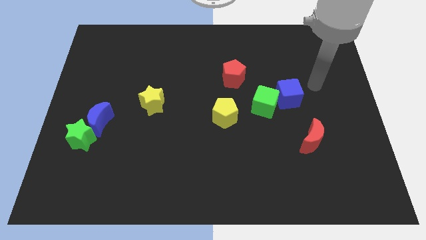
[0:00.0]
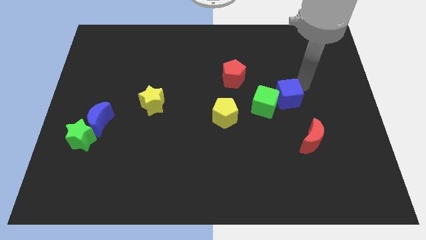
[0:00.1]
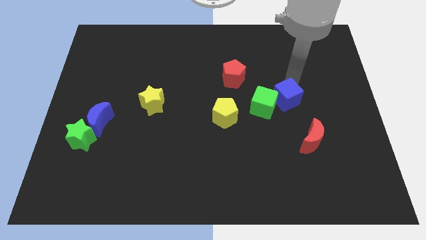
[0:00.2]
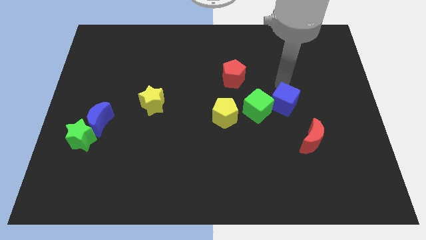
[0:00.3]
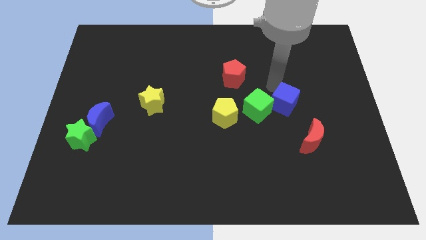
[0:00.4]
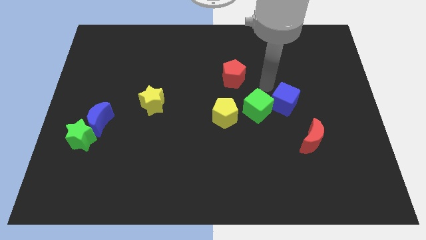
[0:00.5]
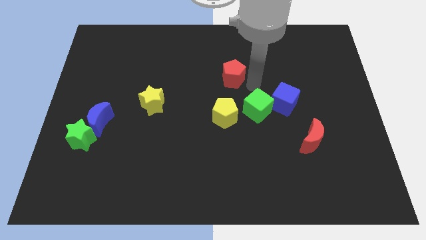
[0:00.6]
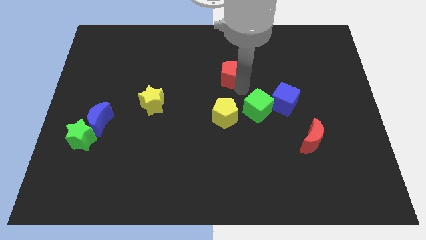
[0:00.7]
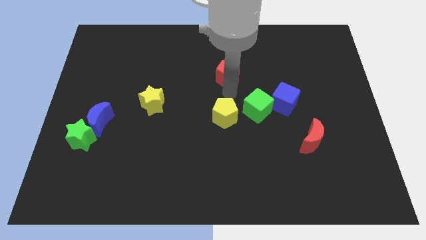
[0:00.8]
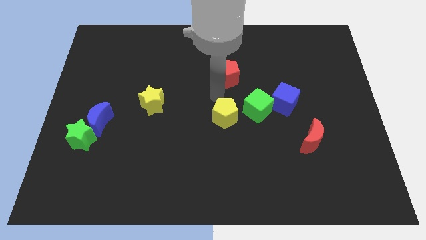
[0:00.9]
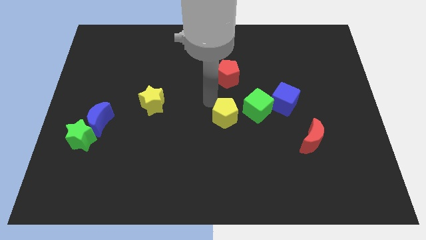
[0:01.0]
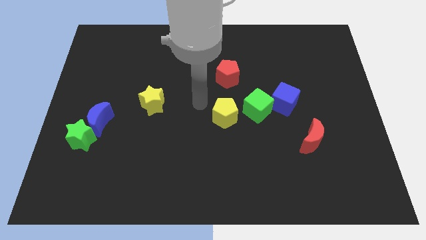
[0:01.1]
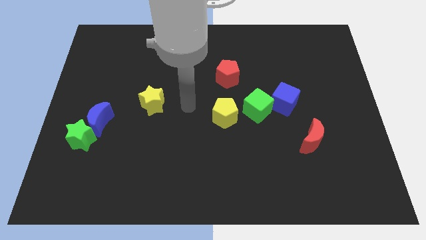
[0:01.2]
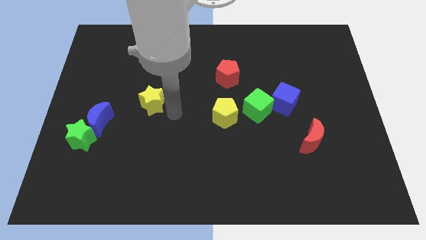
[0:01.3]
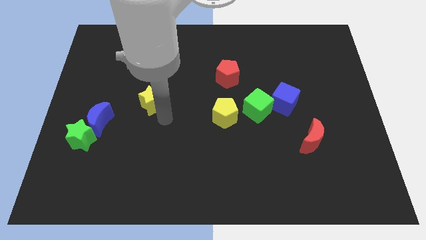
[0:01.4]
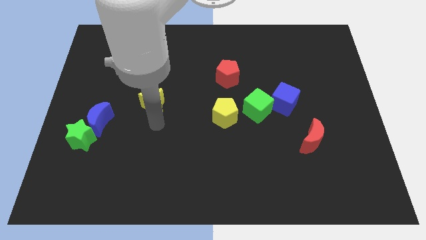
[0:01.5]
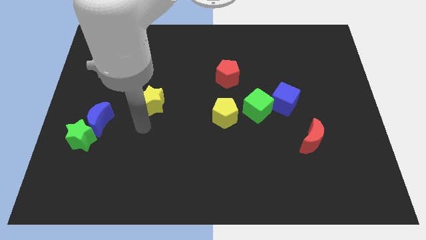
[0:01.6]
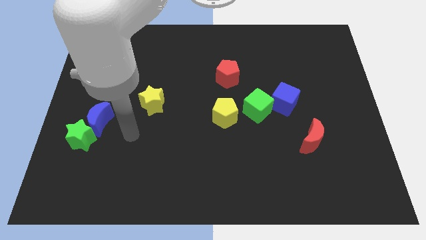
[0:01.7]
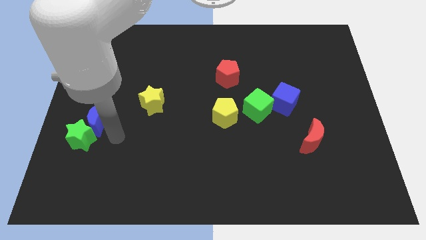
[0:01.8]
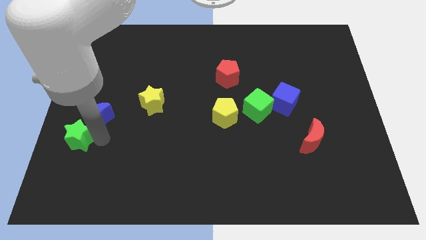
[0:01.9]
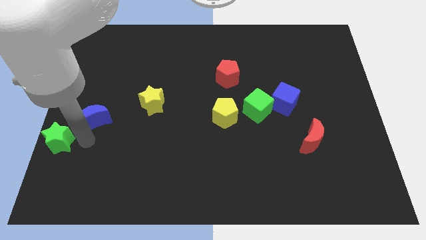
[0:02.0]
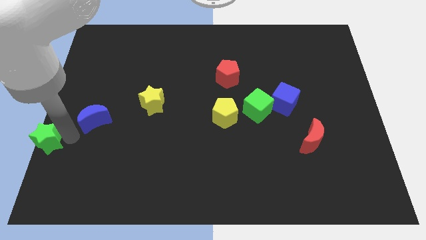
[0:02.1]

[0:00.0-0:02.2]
separate the blue moon from the green star

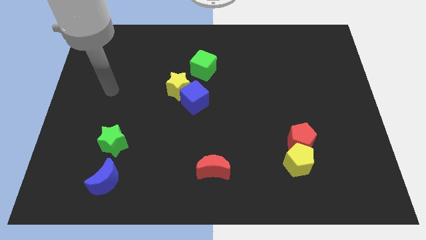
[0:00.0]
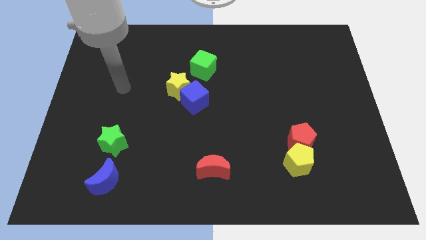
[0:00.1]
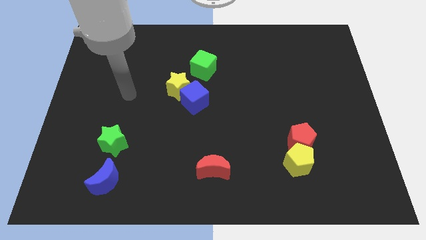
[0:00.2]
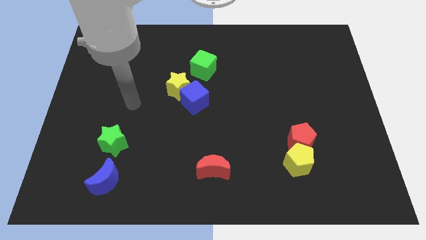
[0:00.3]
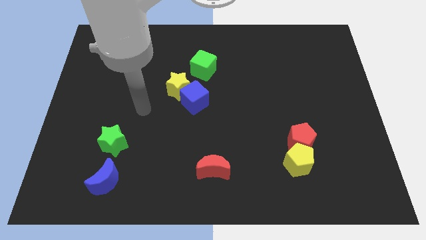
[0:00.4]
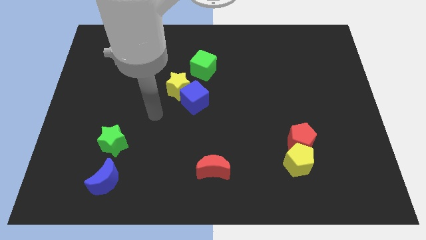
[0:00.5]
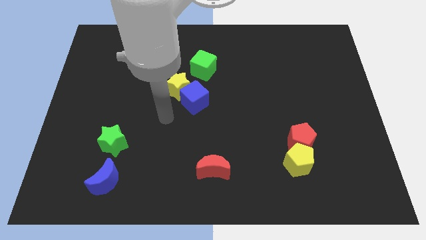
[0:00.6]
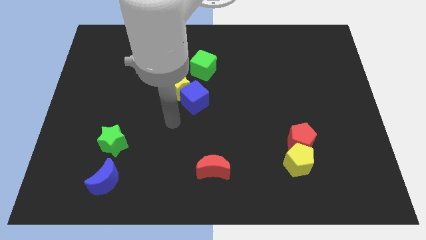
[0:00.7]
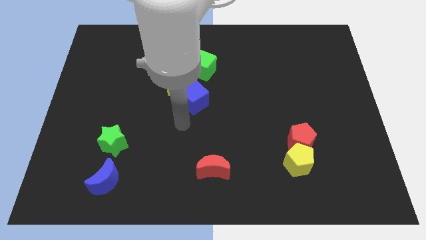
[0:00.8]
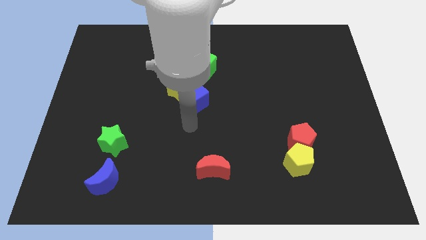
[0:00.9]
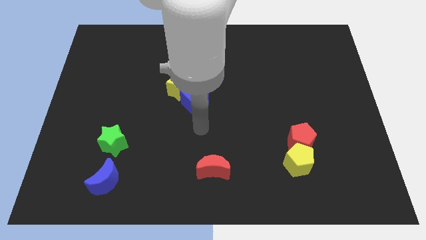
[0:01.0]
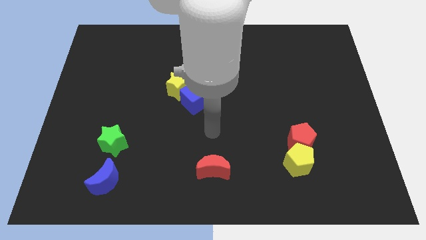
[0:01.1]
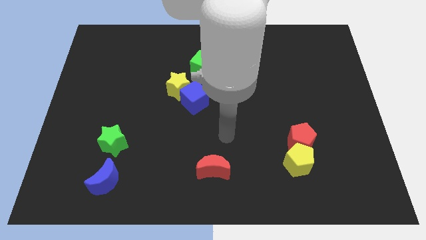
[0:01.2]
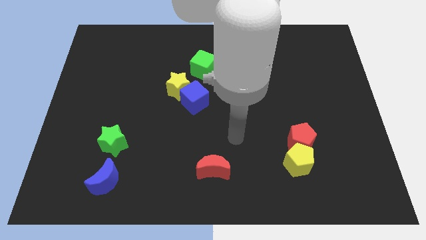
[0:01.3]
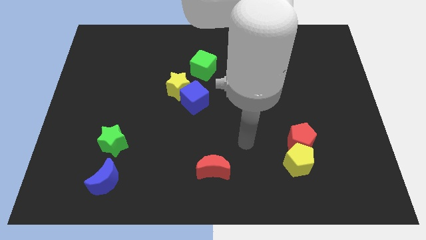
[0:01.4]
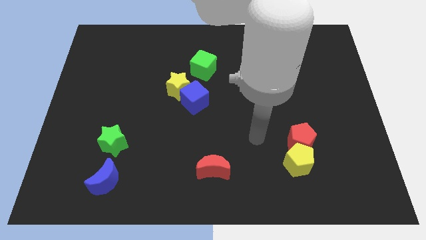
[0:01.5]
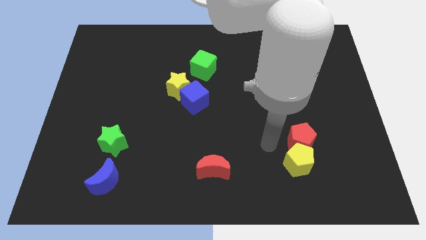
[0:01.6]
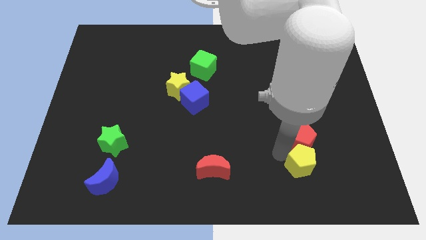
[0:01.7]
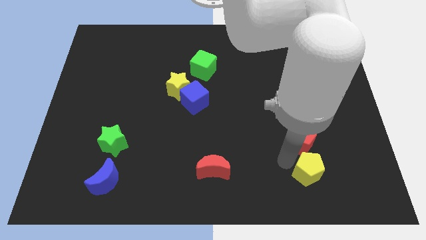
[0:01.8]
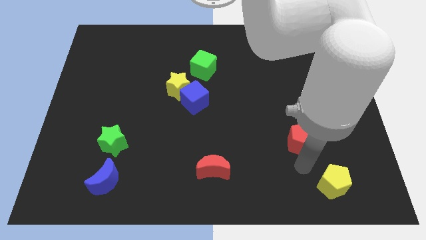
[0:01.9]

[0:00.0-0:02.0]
move the red pentagon away from the yellow pentagon

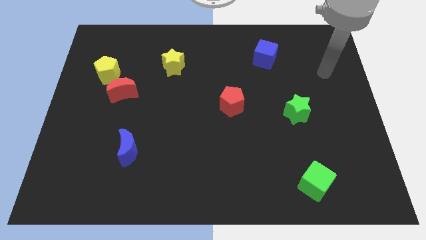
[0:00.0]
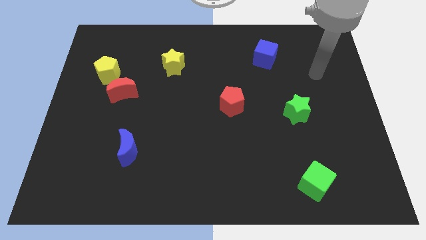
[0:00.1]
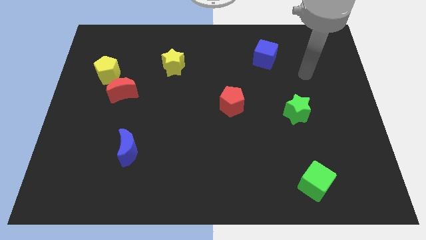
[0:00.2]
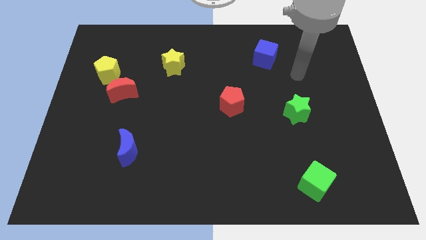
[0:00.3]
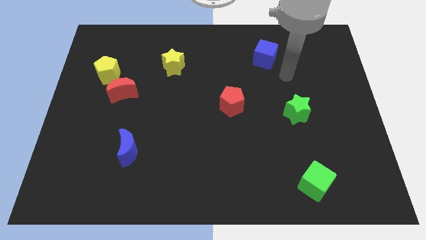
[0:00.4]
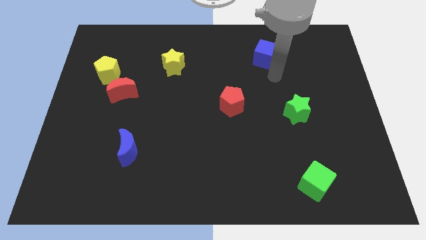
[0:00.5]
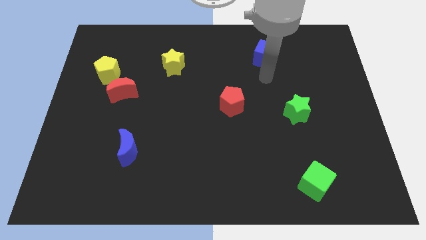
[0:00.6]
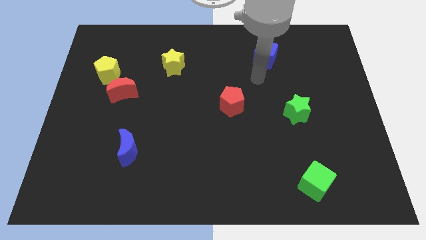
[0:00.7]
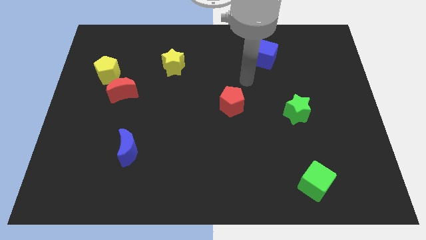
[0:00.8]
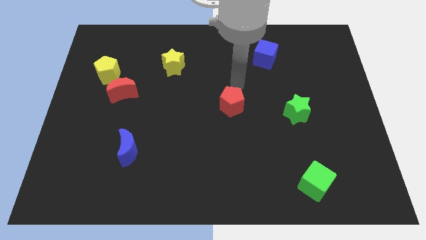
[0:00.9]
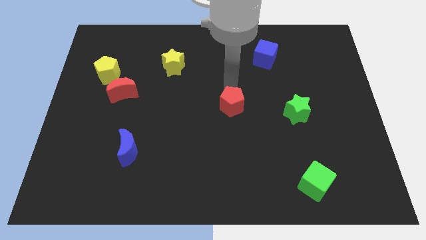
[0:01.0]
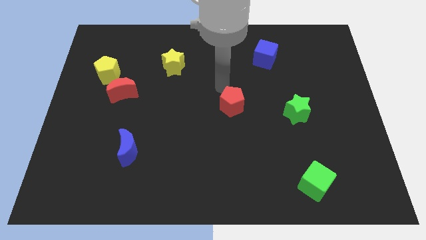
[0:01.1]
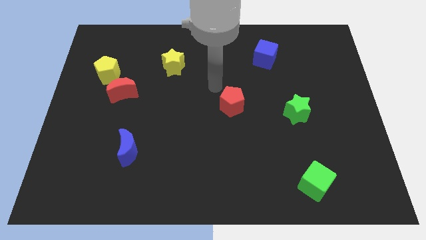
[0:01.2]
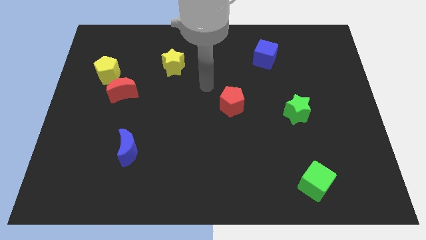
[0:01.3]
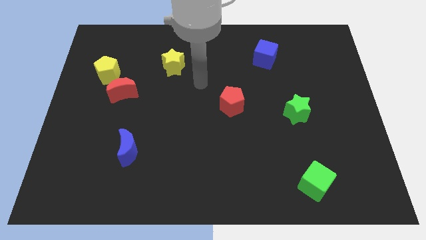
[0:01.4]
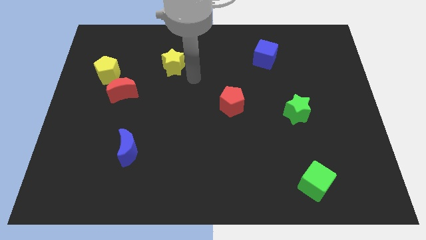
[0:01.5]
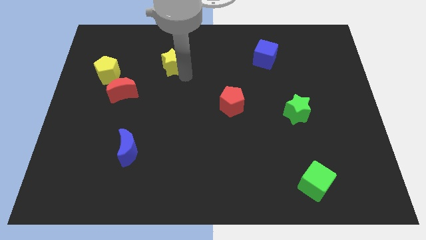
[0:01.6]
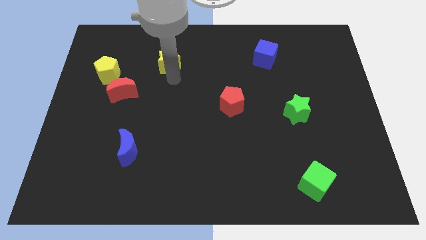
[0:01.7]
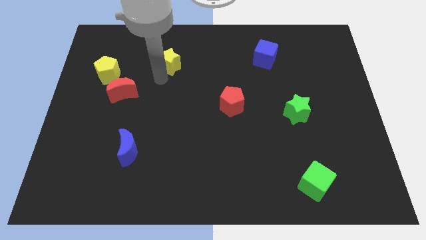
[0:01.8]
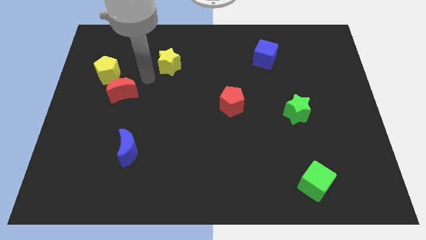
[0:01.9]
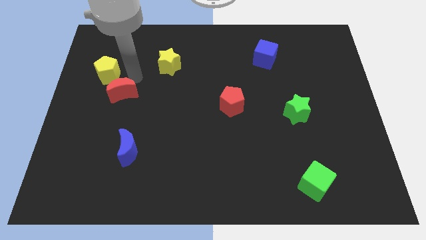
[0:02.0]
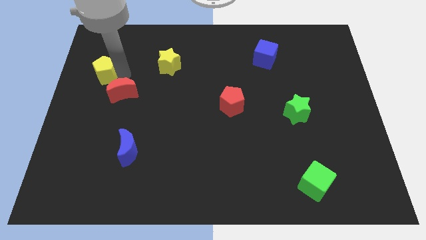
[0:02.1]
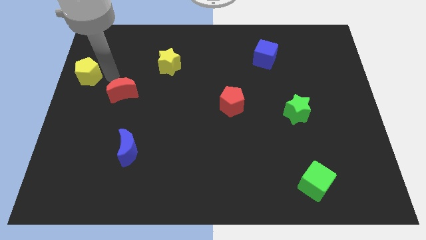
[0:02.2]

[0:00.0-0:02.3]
separate the red moon from the yellow pentagon

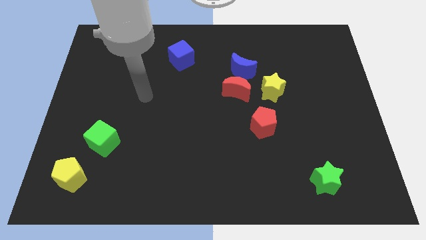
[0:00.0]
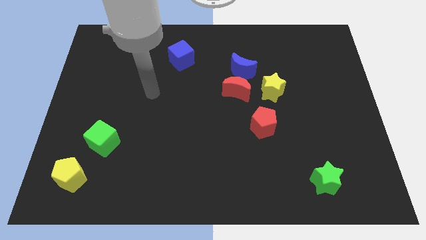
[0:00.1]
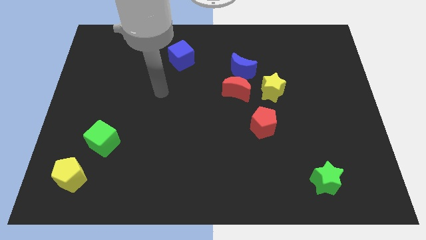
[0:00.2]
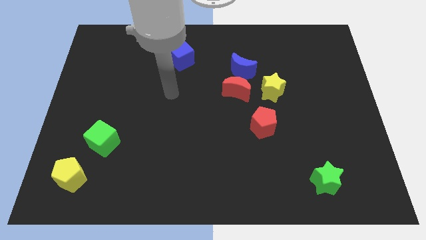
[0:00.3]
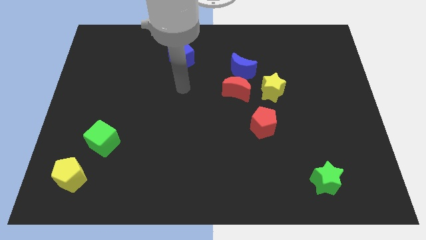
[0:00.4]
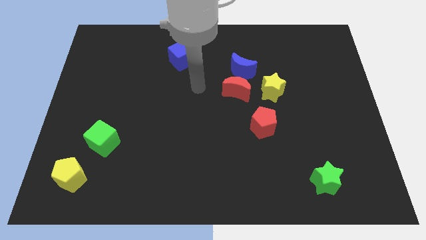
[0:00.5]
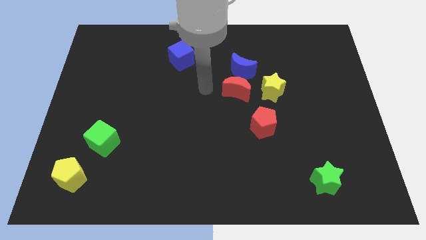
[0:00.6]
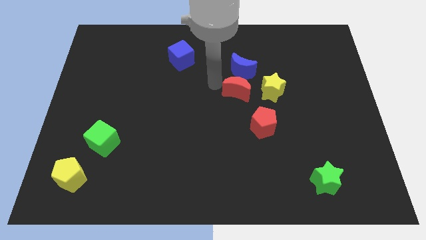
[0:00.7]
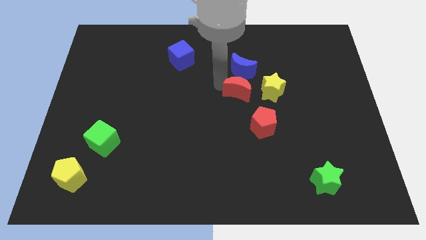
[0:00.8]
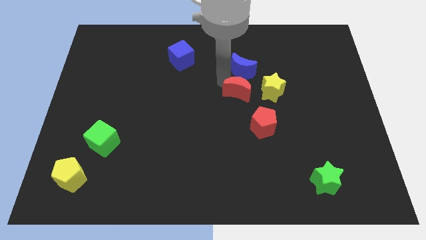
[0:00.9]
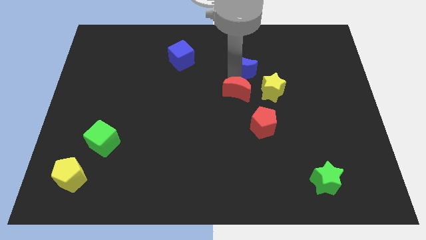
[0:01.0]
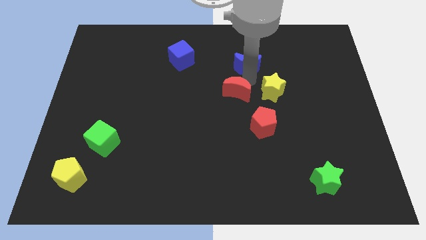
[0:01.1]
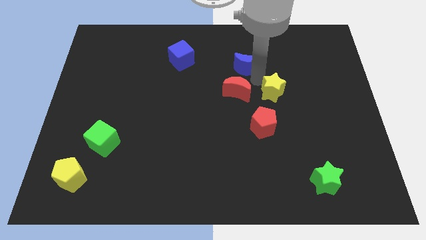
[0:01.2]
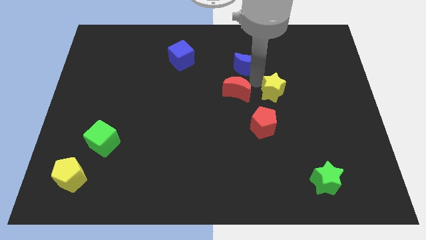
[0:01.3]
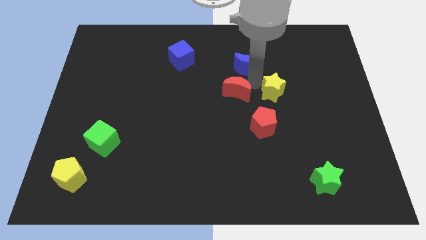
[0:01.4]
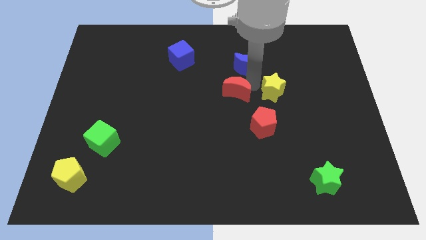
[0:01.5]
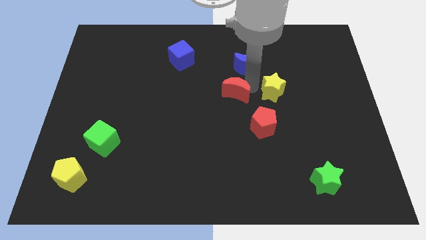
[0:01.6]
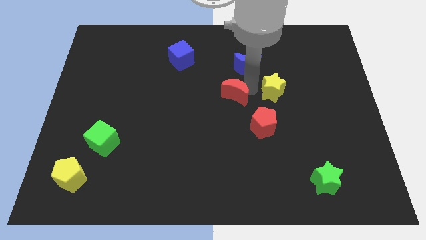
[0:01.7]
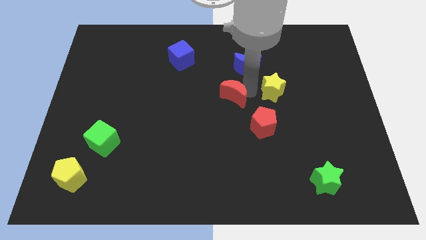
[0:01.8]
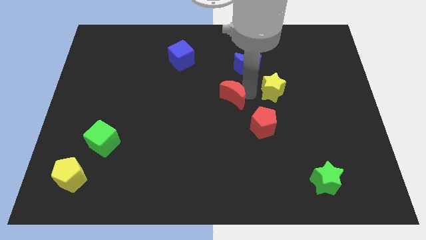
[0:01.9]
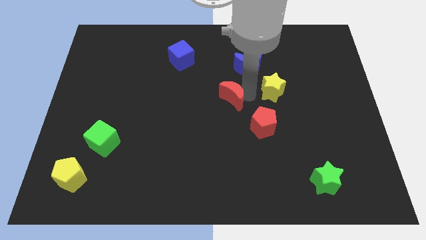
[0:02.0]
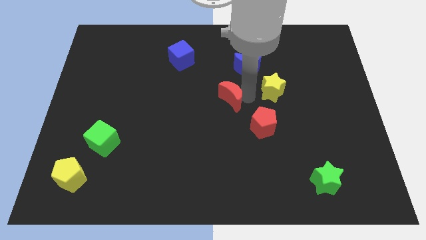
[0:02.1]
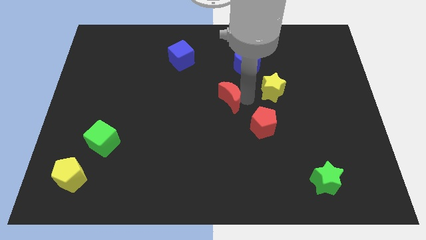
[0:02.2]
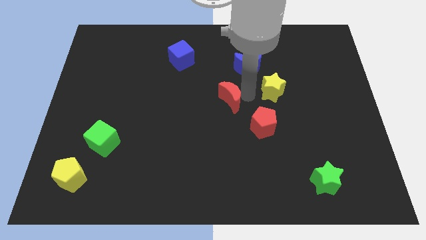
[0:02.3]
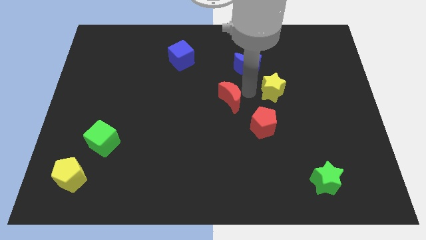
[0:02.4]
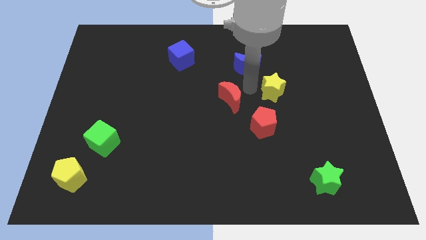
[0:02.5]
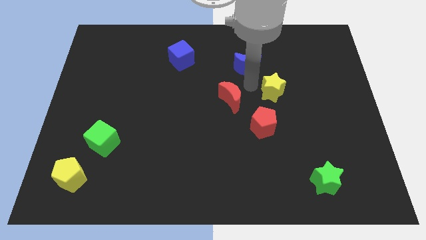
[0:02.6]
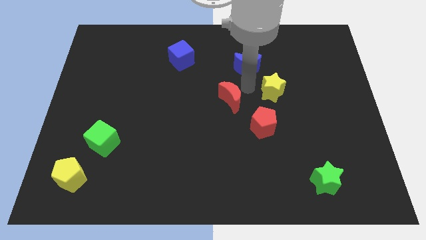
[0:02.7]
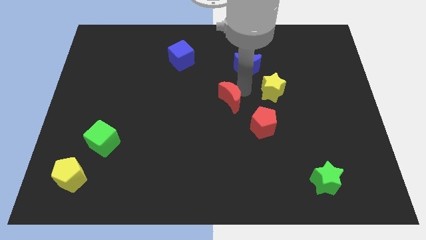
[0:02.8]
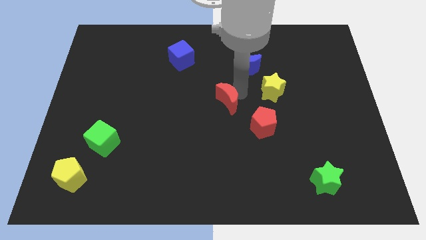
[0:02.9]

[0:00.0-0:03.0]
move the red moon away from the blue moon and yellow star
